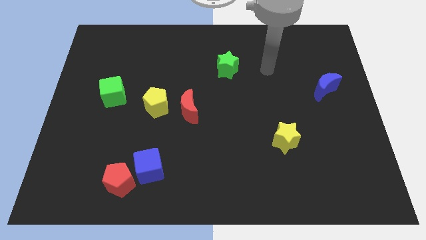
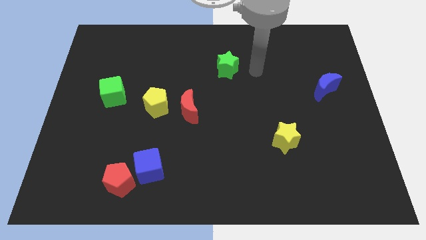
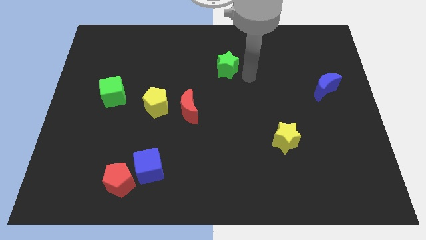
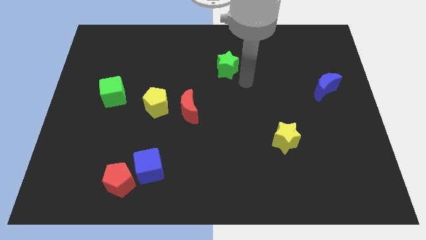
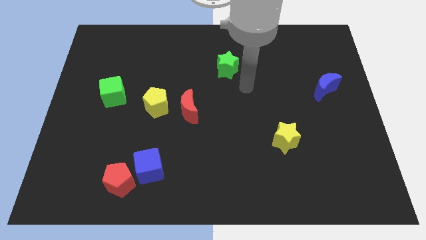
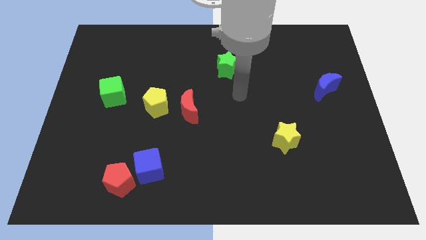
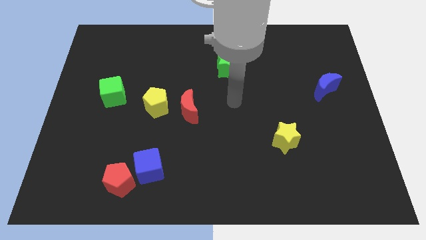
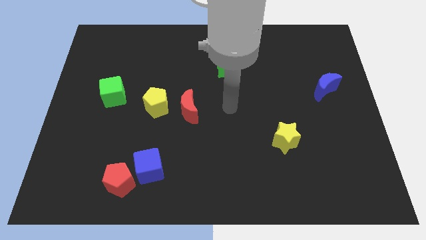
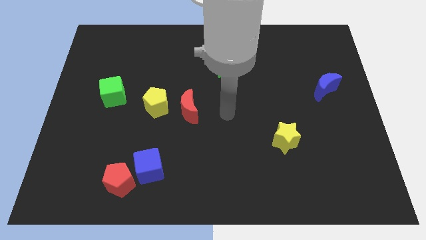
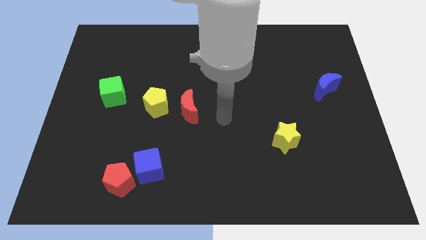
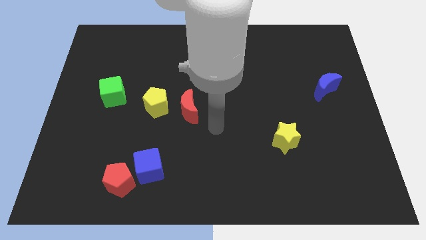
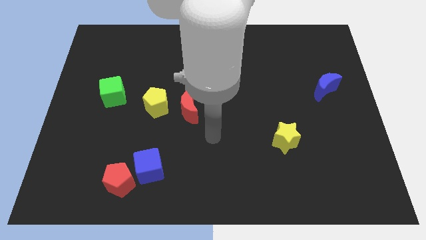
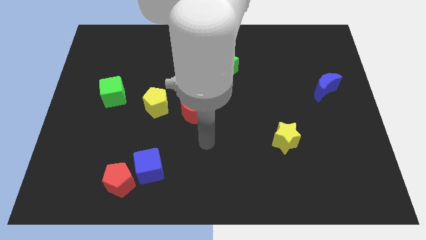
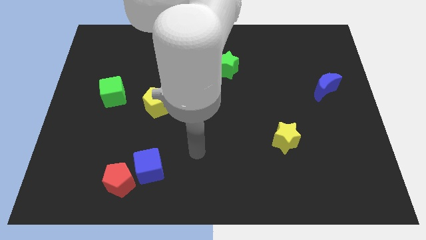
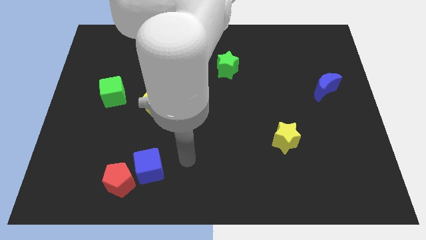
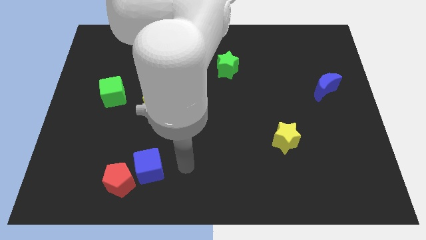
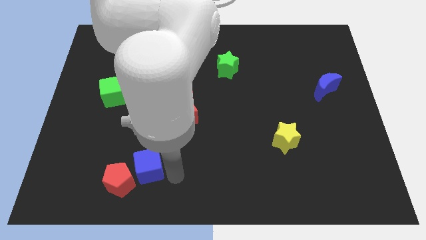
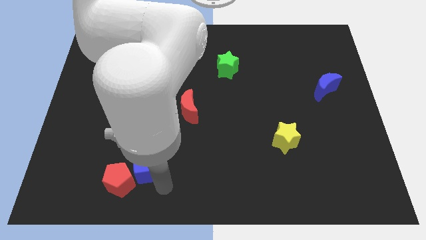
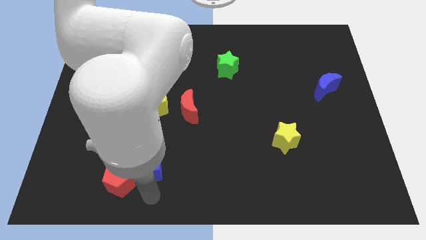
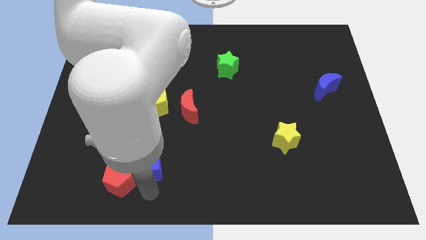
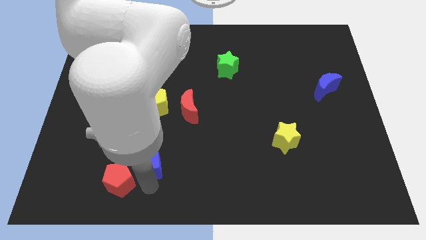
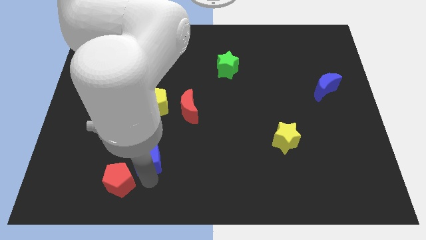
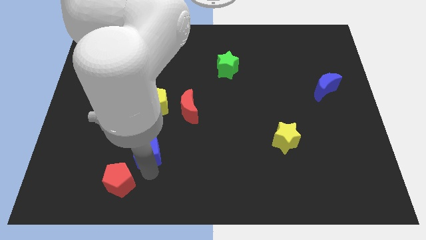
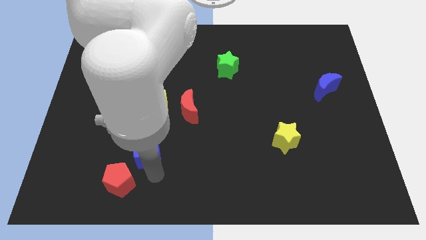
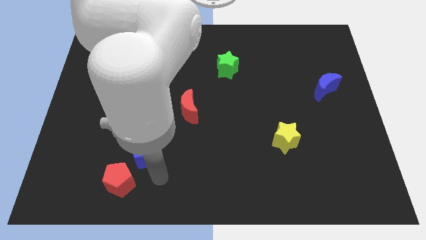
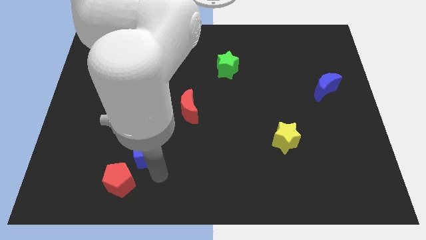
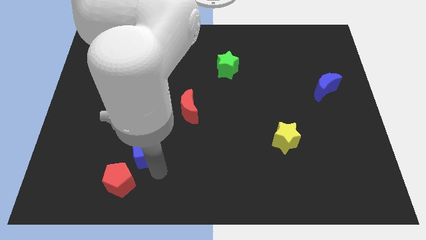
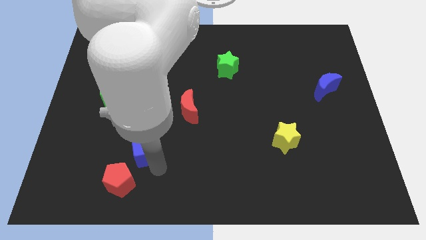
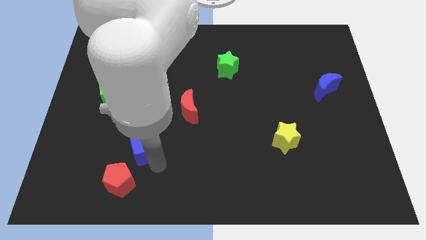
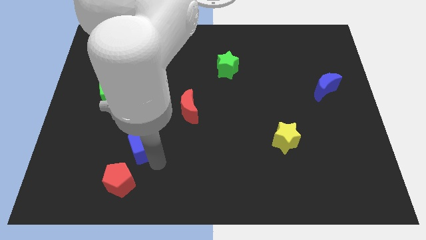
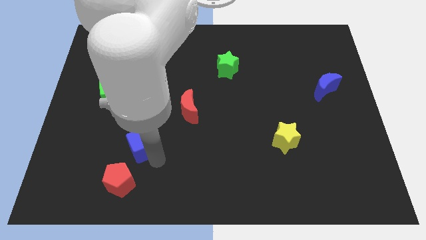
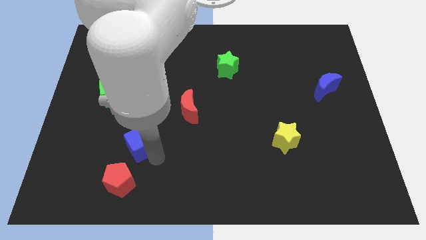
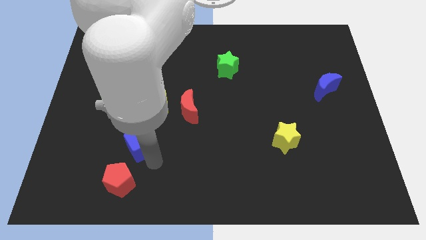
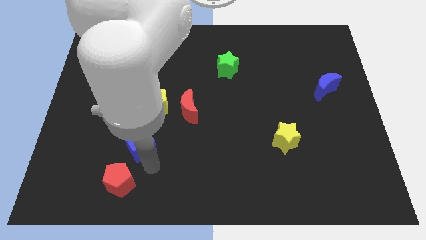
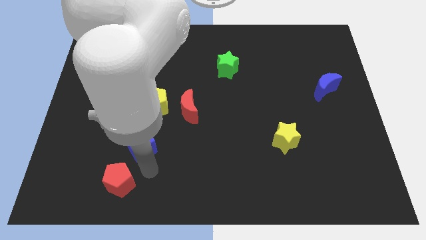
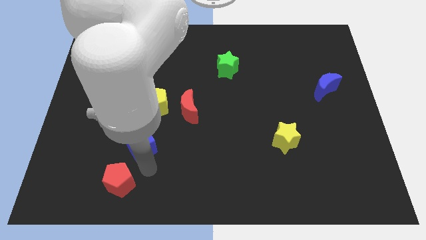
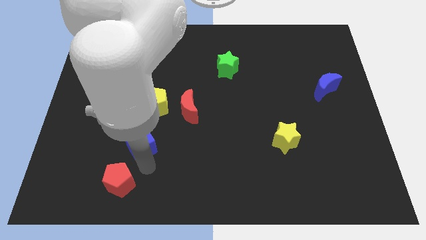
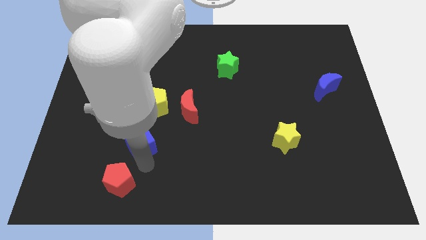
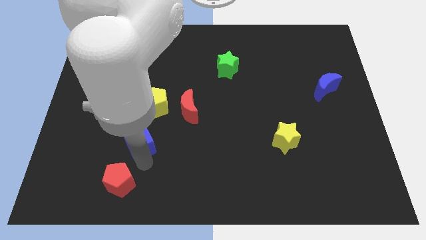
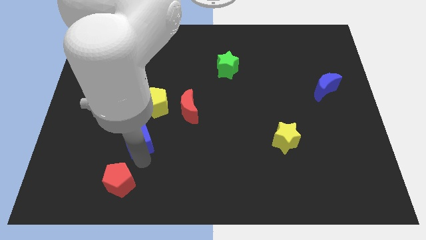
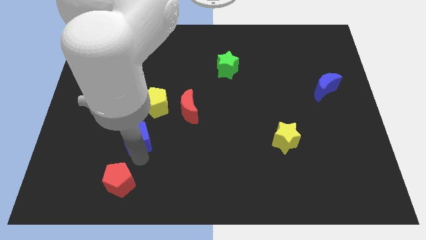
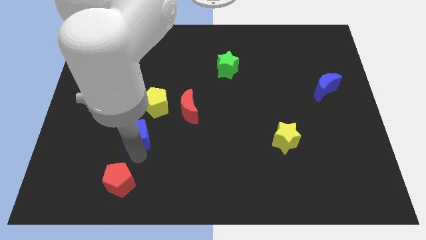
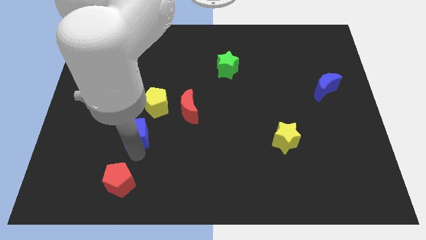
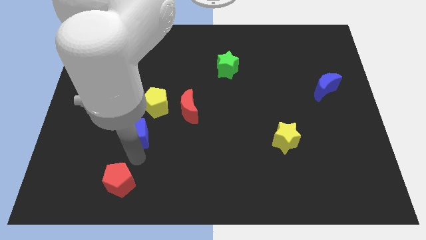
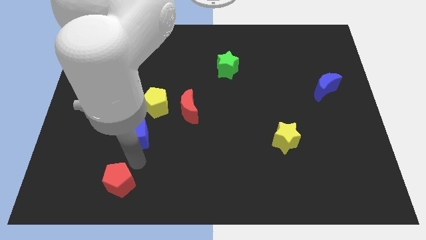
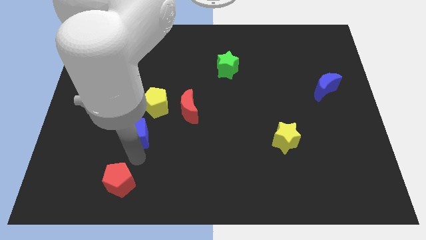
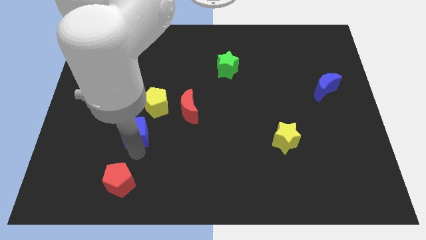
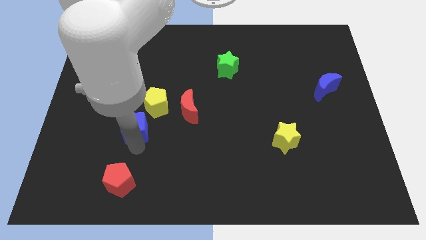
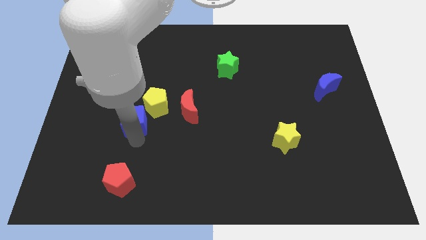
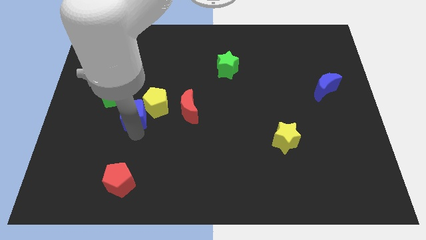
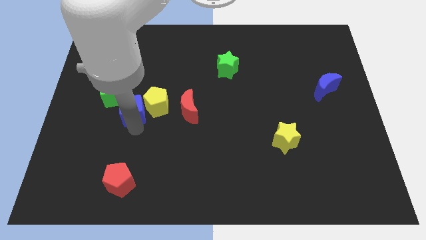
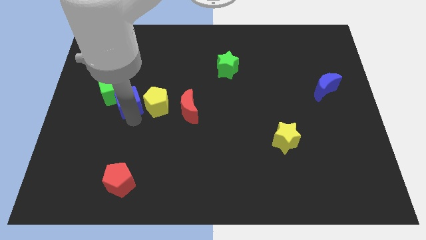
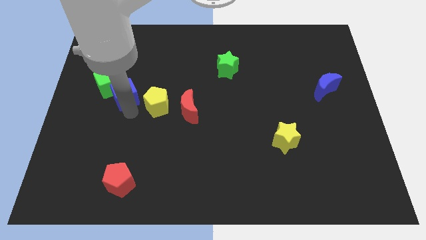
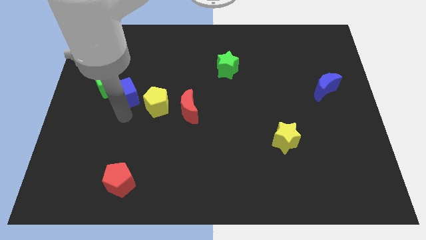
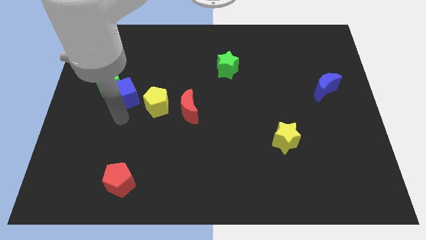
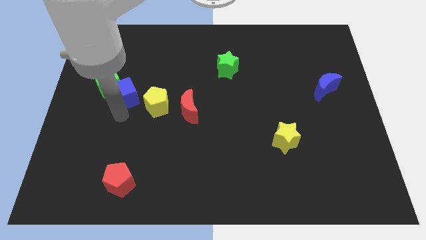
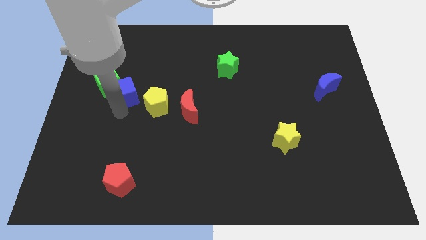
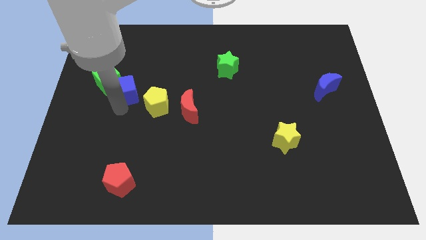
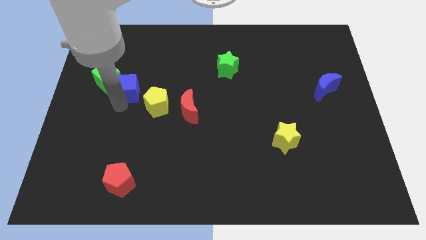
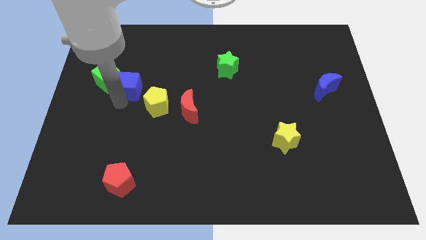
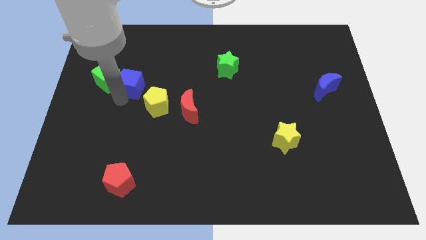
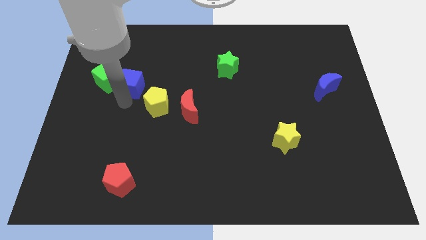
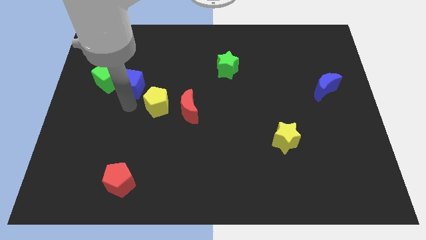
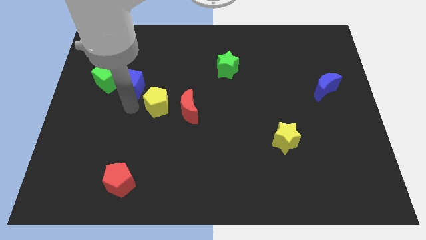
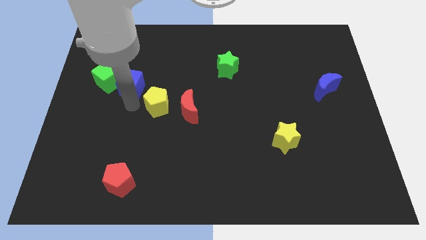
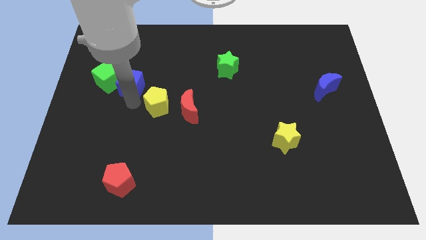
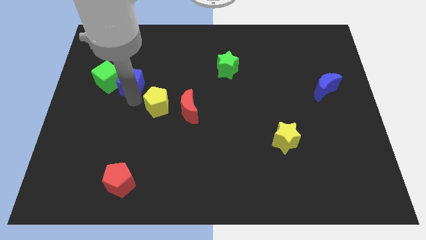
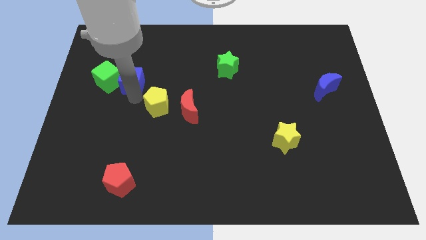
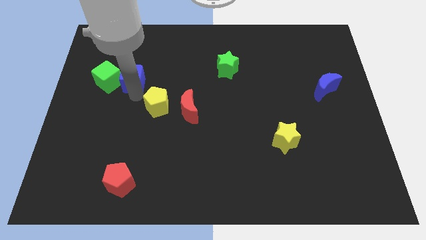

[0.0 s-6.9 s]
move the blue cube to the top right side of the green cube
